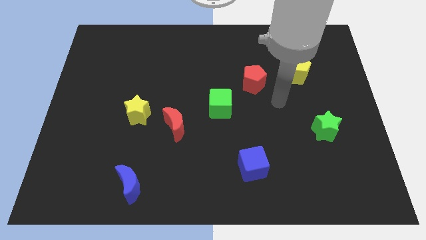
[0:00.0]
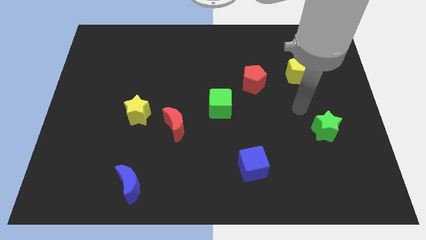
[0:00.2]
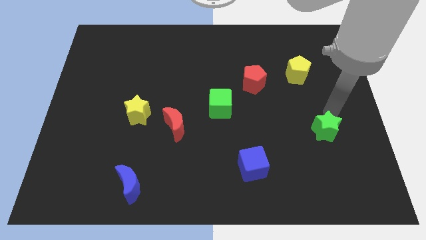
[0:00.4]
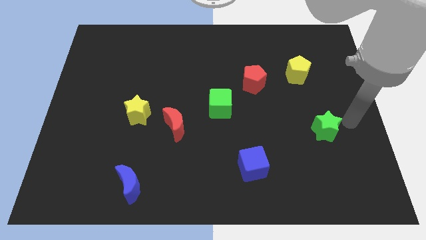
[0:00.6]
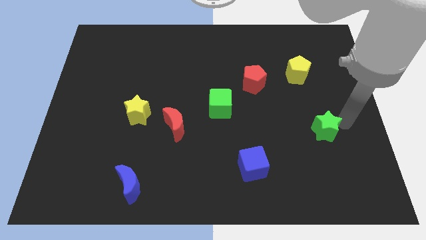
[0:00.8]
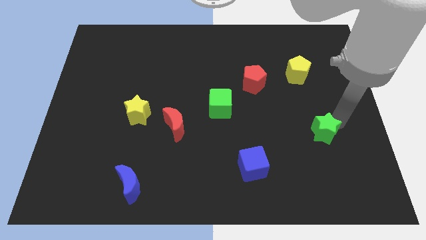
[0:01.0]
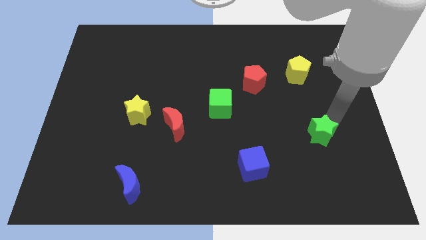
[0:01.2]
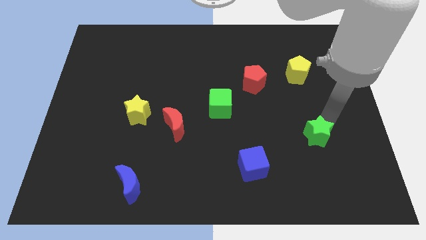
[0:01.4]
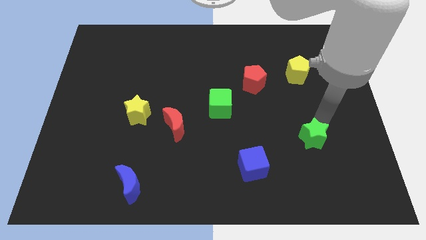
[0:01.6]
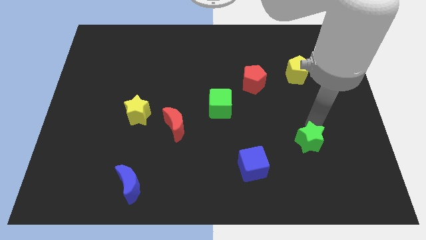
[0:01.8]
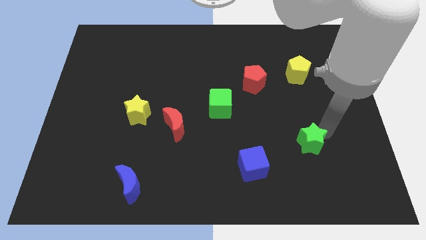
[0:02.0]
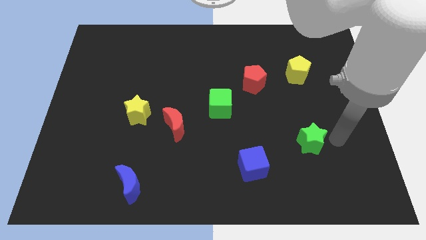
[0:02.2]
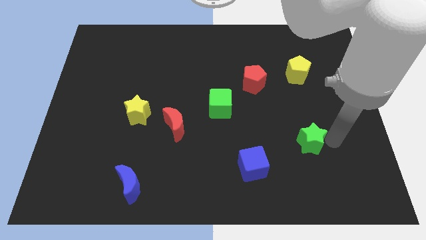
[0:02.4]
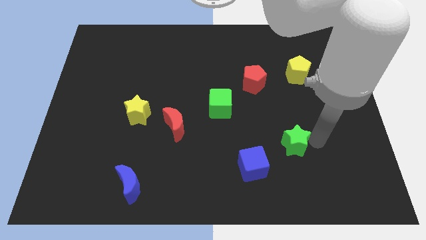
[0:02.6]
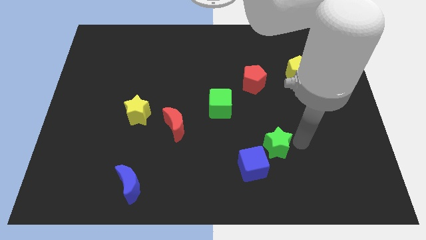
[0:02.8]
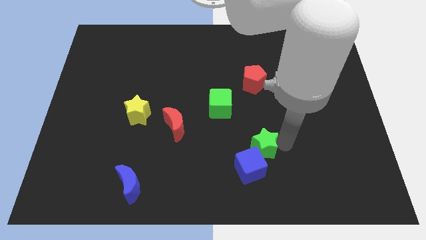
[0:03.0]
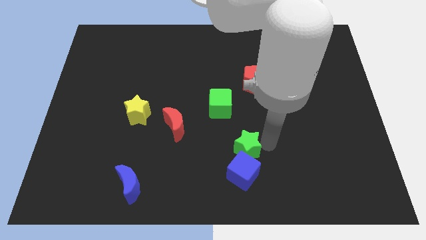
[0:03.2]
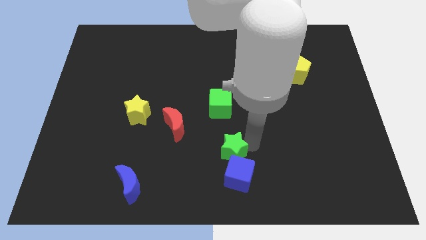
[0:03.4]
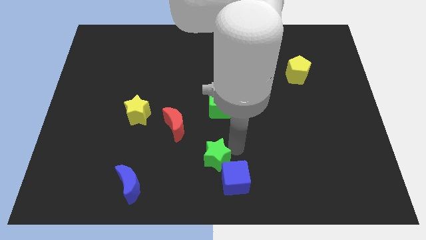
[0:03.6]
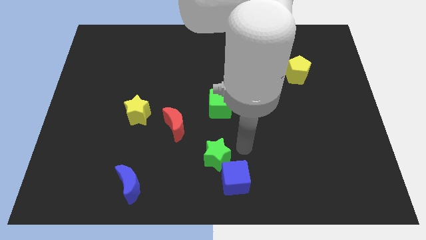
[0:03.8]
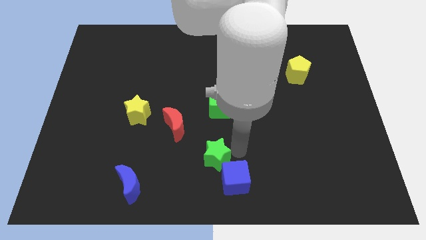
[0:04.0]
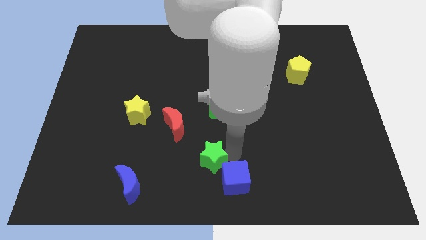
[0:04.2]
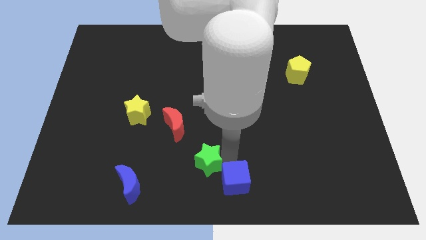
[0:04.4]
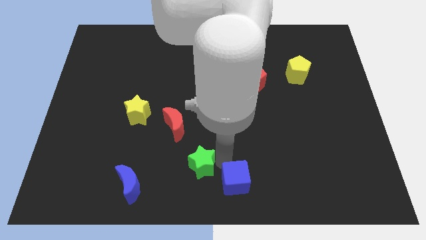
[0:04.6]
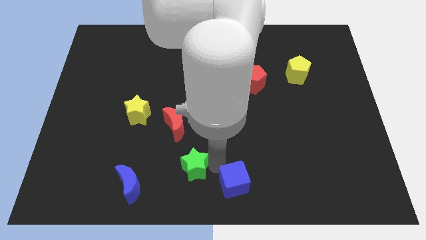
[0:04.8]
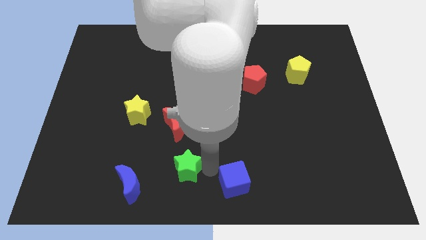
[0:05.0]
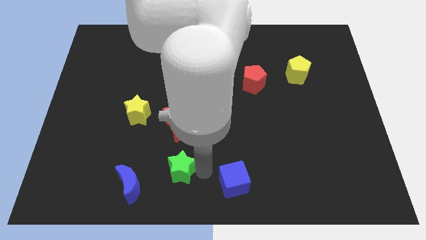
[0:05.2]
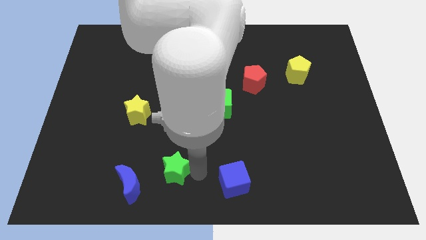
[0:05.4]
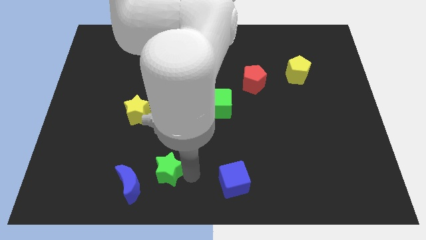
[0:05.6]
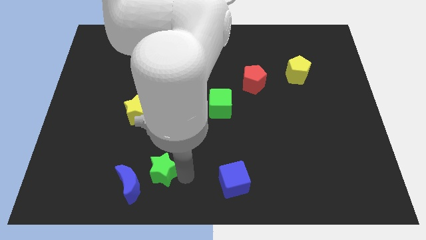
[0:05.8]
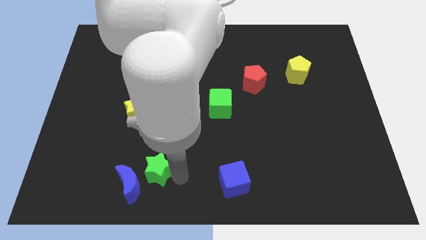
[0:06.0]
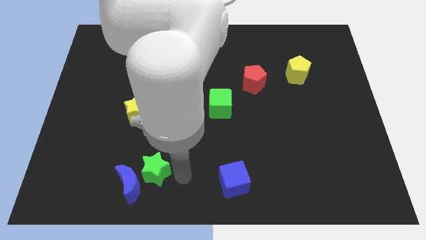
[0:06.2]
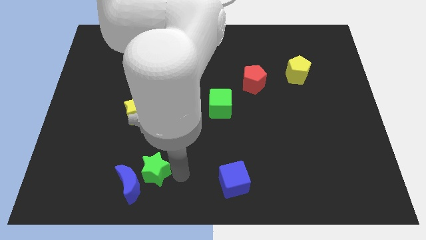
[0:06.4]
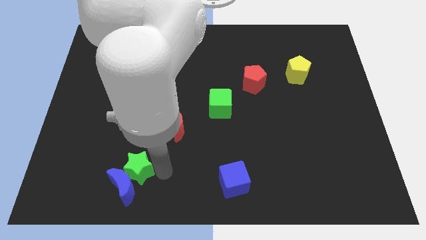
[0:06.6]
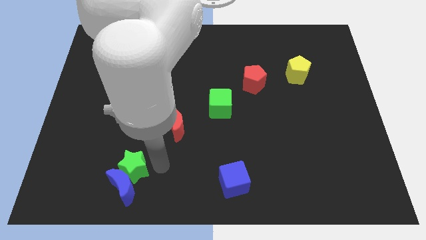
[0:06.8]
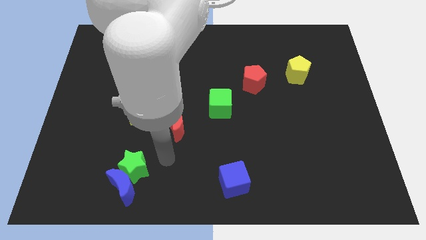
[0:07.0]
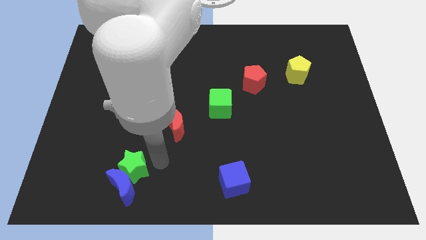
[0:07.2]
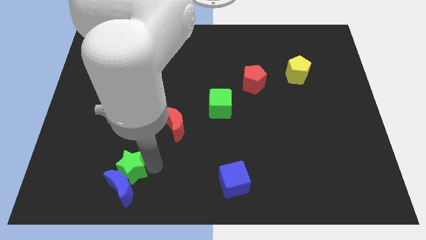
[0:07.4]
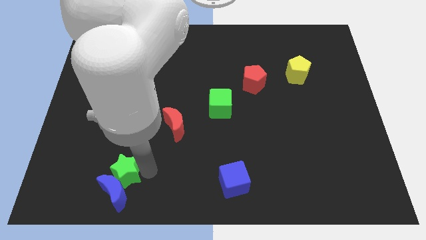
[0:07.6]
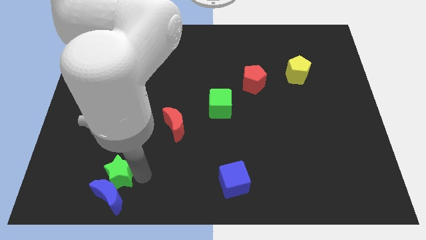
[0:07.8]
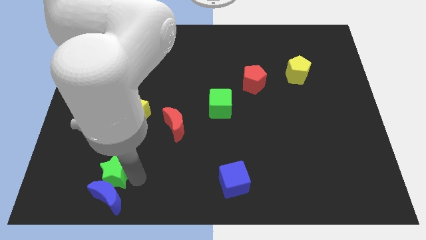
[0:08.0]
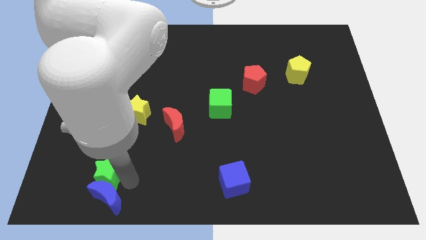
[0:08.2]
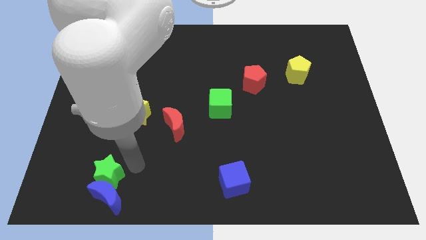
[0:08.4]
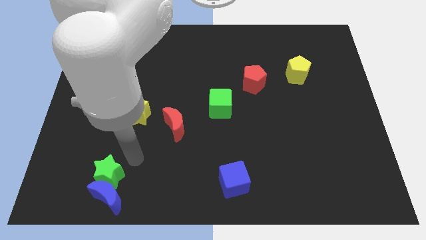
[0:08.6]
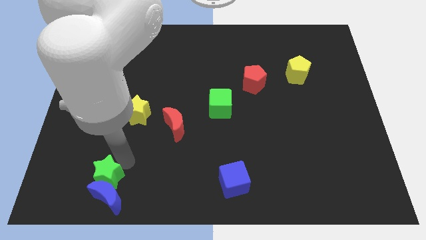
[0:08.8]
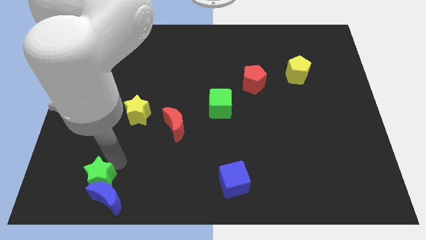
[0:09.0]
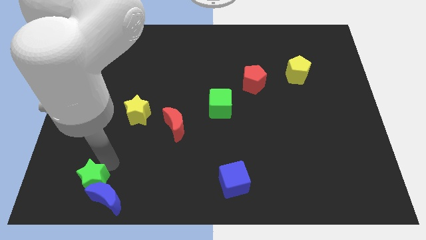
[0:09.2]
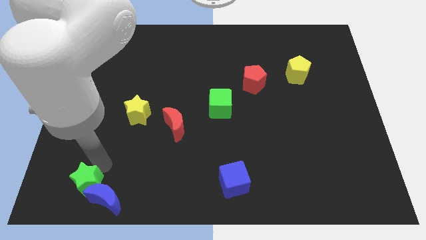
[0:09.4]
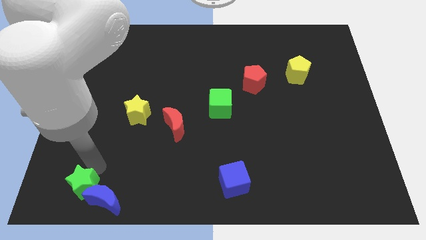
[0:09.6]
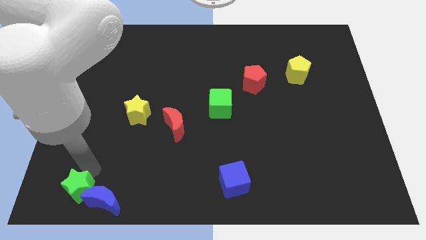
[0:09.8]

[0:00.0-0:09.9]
put the green star to the bottom left of the board
